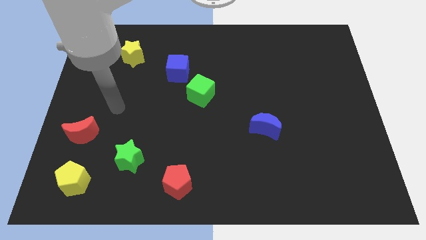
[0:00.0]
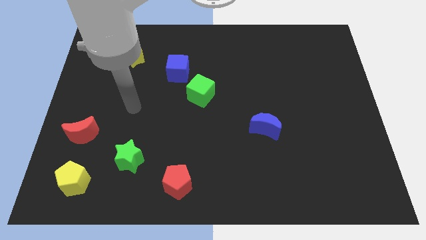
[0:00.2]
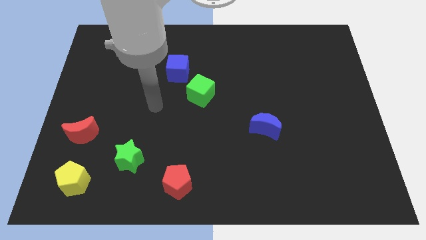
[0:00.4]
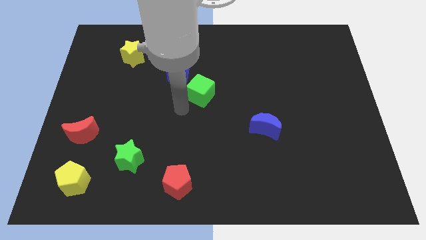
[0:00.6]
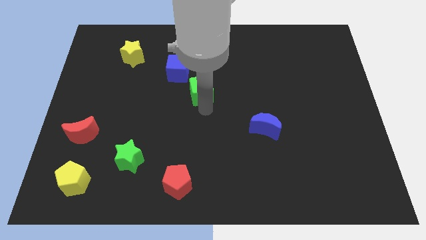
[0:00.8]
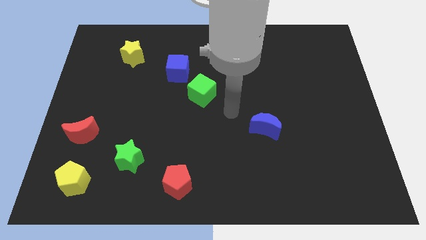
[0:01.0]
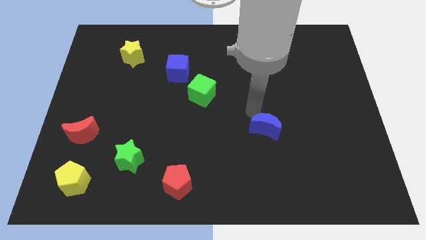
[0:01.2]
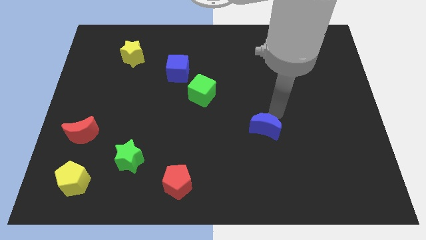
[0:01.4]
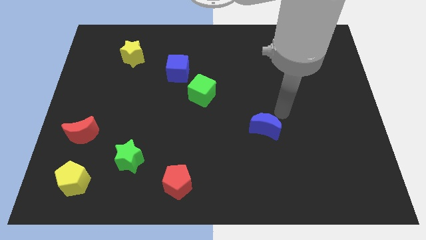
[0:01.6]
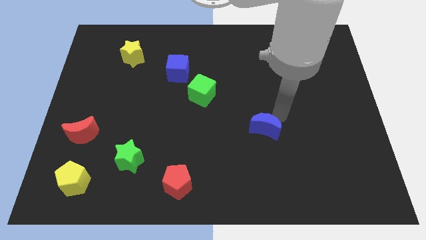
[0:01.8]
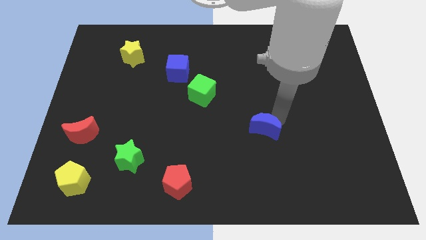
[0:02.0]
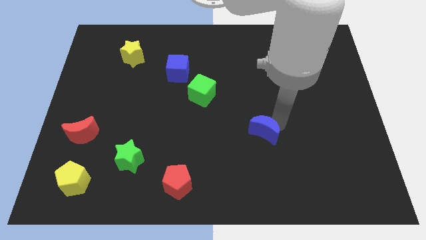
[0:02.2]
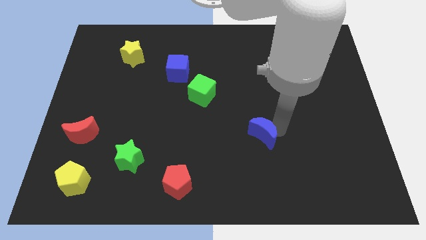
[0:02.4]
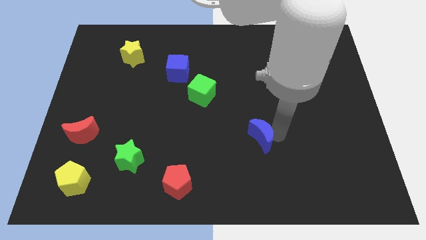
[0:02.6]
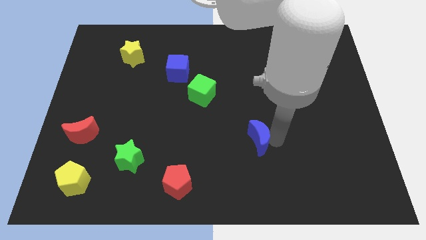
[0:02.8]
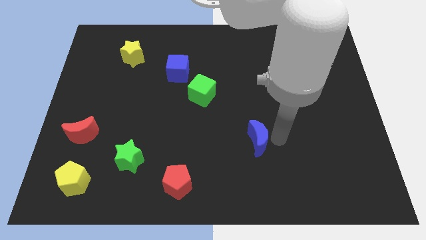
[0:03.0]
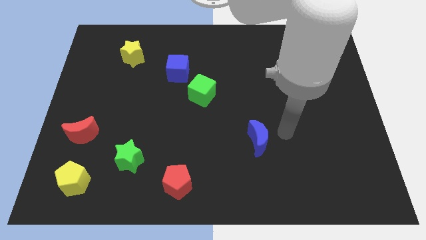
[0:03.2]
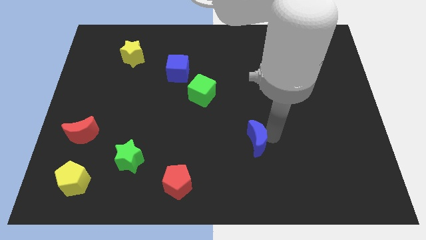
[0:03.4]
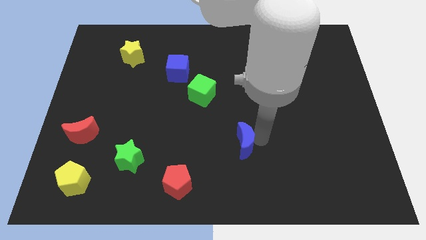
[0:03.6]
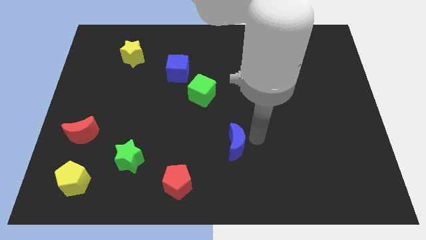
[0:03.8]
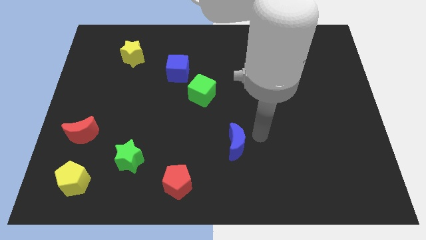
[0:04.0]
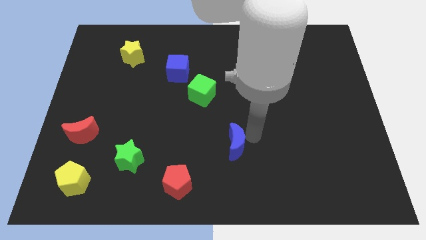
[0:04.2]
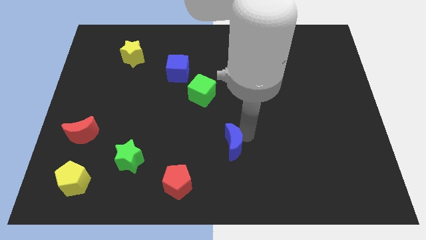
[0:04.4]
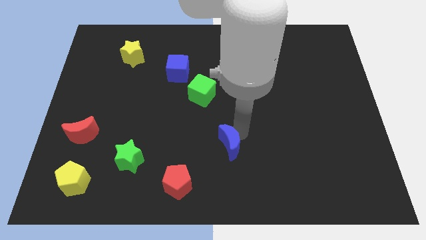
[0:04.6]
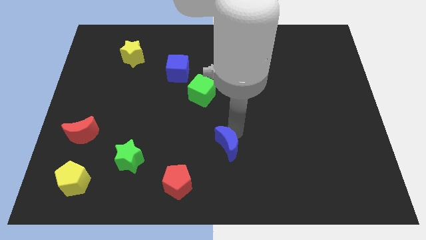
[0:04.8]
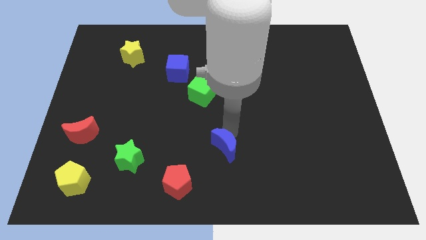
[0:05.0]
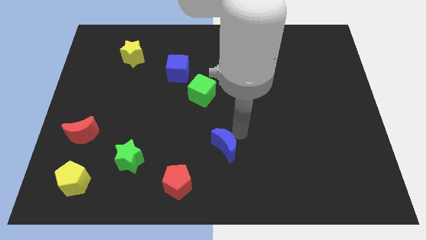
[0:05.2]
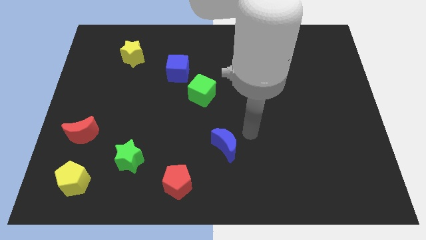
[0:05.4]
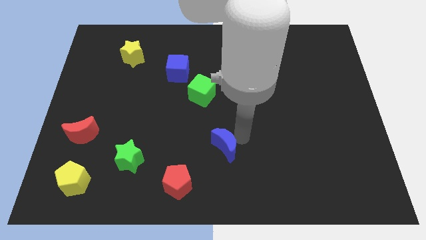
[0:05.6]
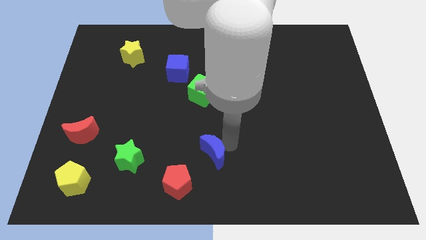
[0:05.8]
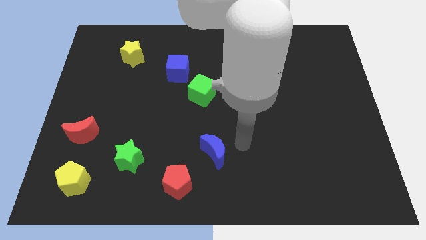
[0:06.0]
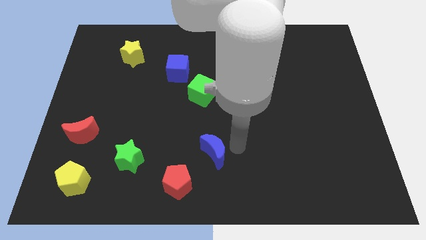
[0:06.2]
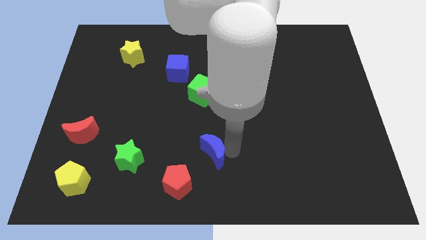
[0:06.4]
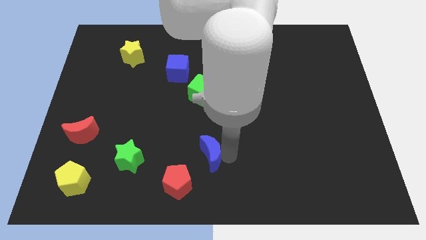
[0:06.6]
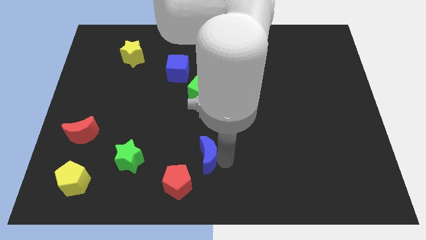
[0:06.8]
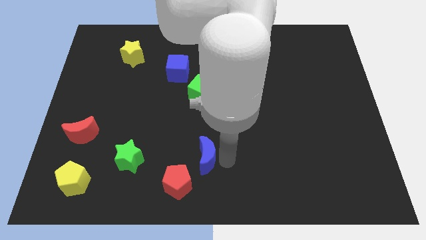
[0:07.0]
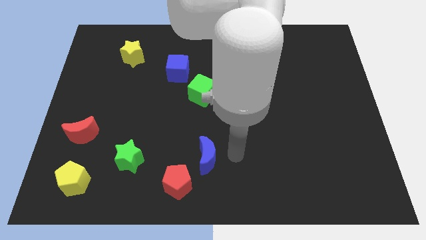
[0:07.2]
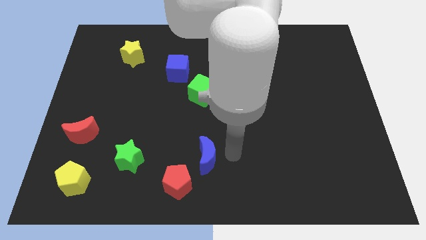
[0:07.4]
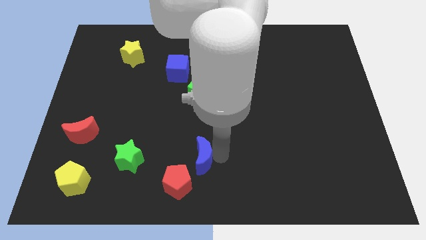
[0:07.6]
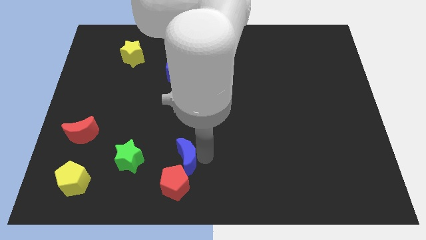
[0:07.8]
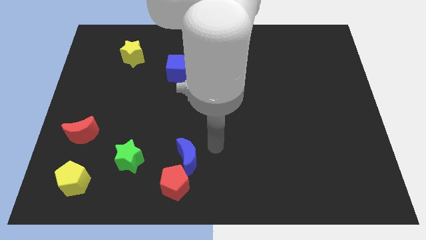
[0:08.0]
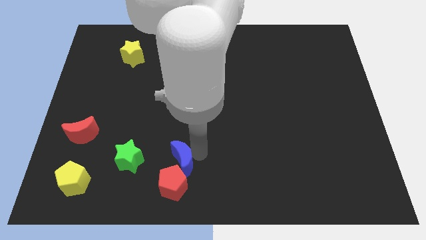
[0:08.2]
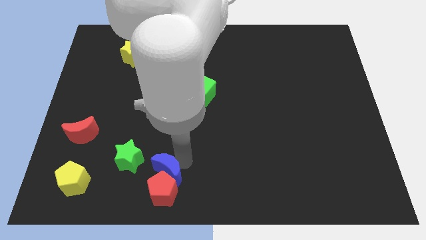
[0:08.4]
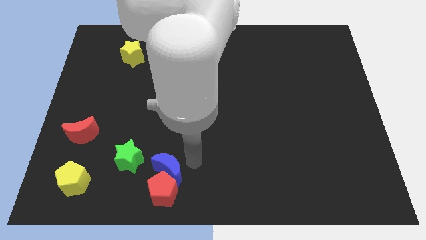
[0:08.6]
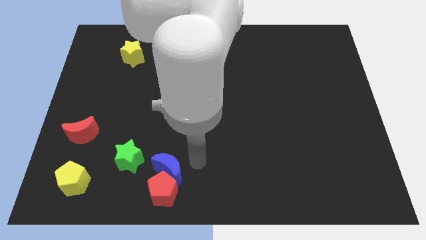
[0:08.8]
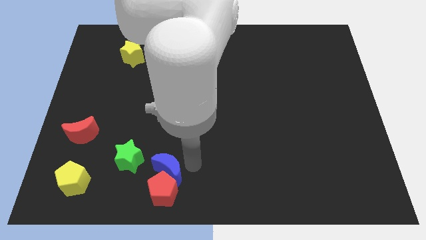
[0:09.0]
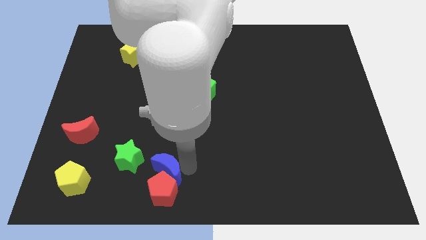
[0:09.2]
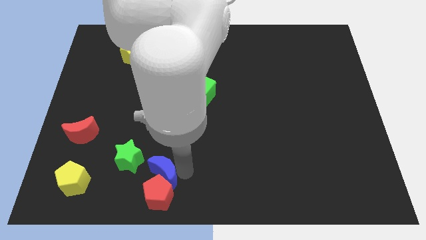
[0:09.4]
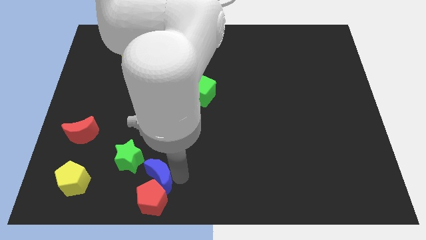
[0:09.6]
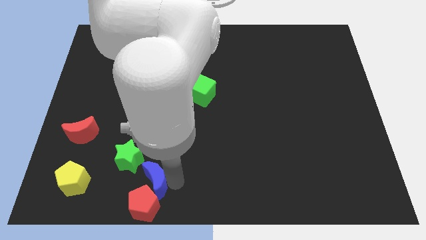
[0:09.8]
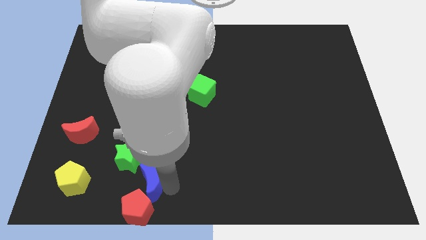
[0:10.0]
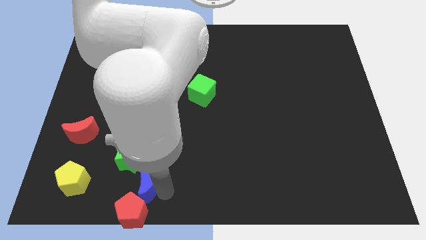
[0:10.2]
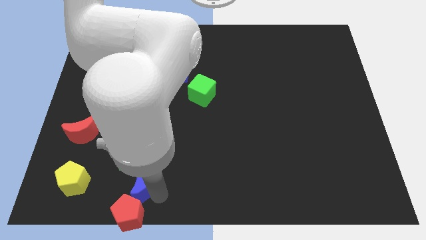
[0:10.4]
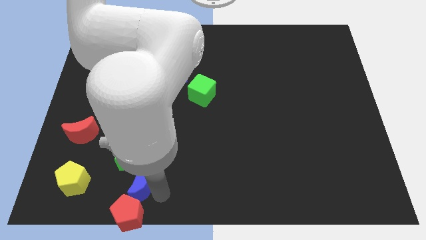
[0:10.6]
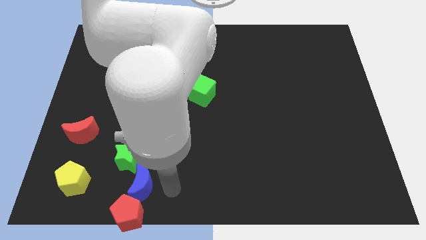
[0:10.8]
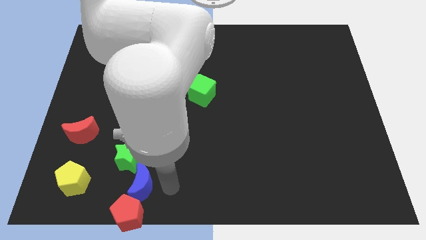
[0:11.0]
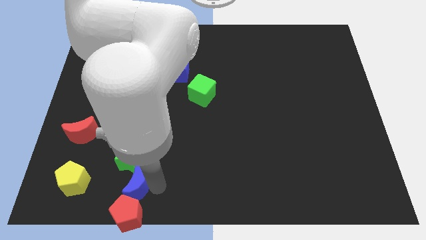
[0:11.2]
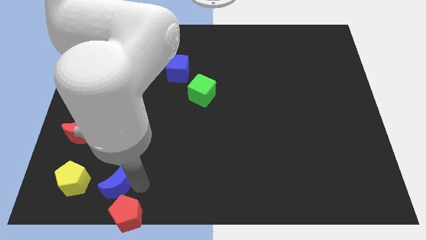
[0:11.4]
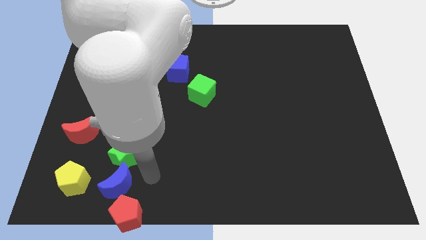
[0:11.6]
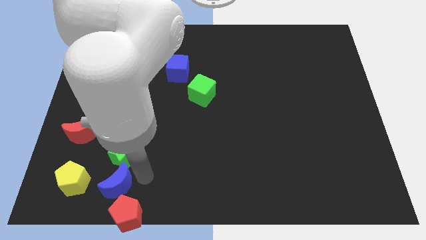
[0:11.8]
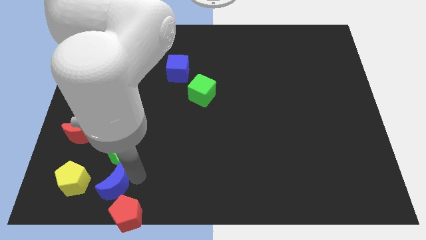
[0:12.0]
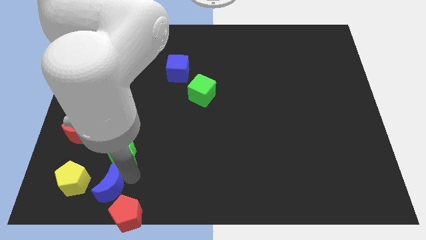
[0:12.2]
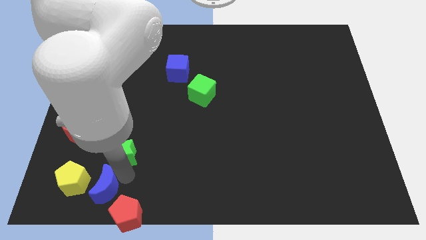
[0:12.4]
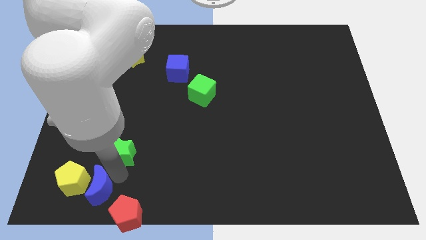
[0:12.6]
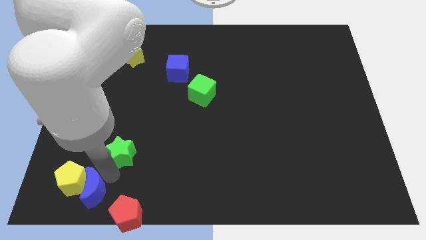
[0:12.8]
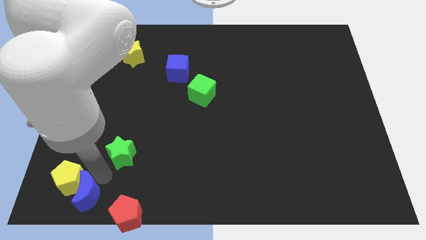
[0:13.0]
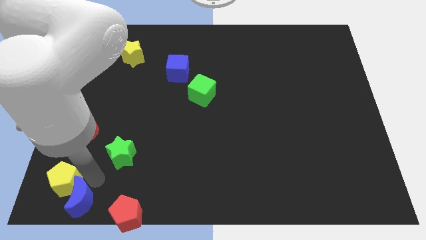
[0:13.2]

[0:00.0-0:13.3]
slide the blue moon to the bottom left of the board

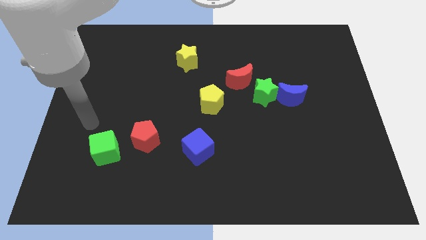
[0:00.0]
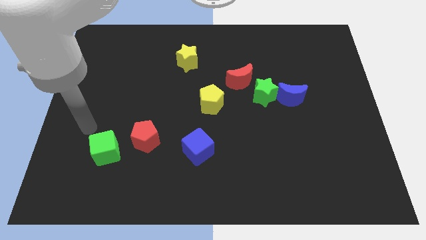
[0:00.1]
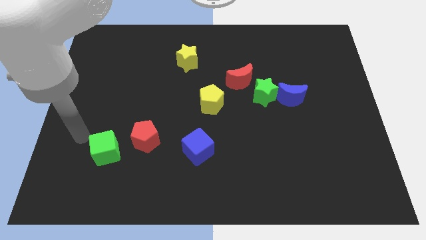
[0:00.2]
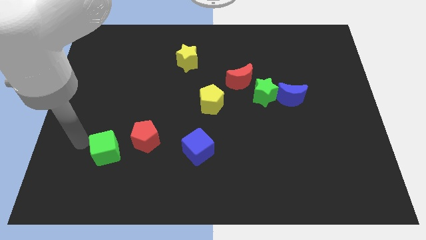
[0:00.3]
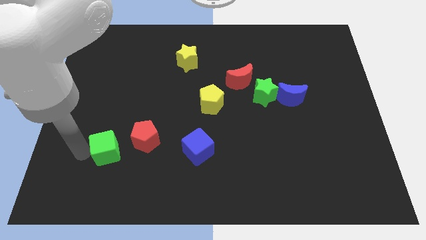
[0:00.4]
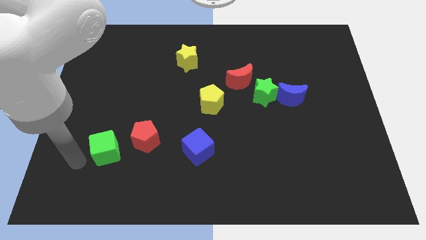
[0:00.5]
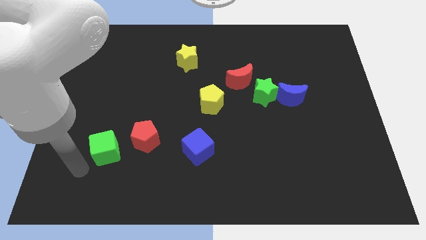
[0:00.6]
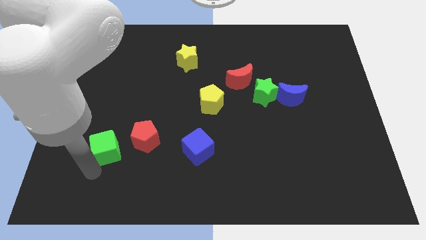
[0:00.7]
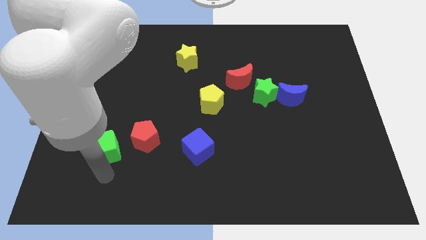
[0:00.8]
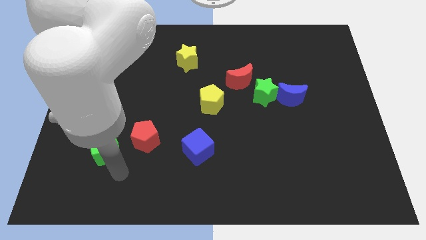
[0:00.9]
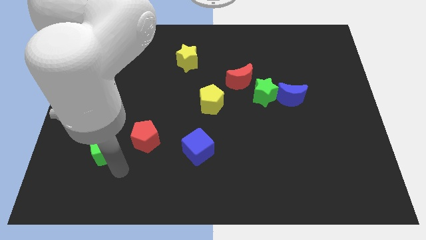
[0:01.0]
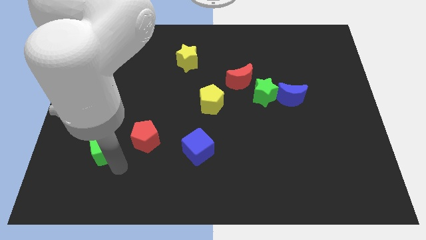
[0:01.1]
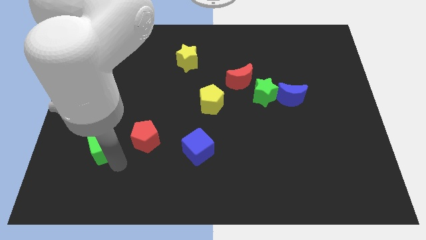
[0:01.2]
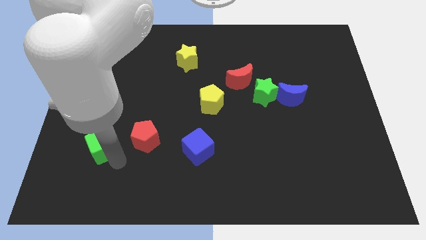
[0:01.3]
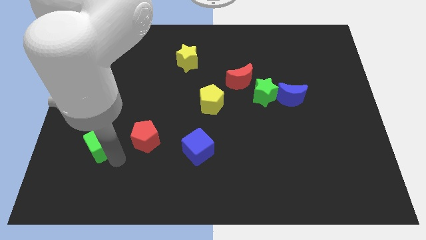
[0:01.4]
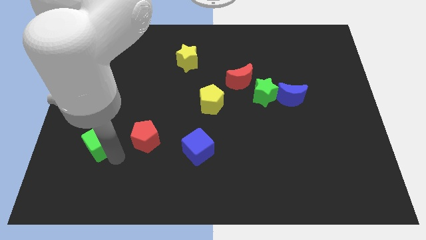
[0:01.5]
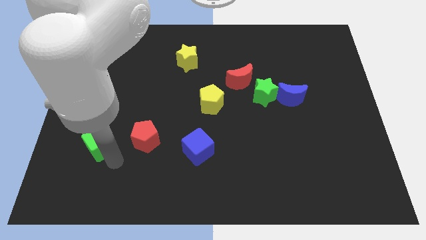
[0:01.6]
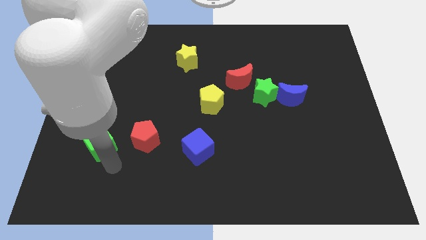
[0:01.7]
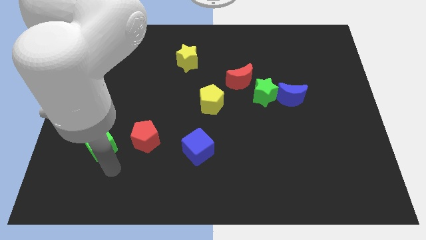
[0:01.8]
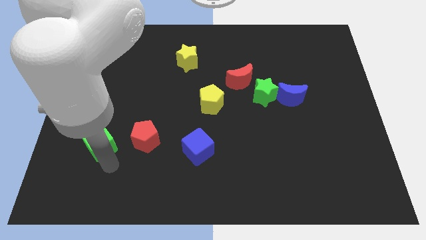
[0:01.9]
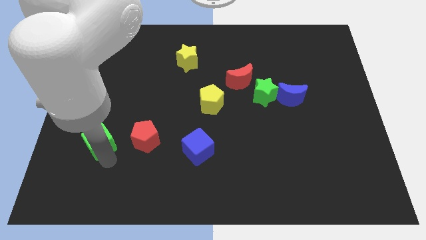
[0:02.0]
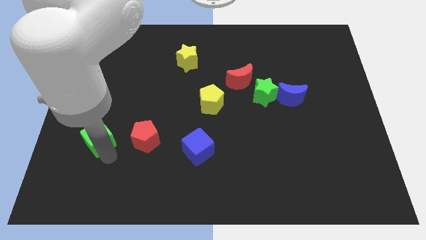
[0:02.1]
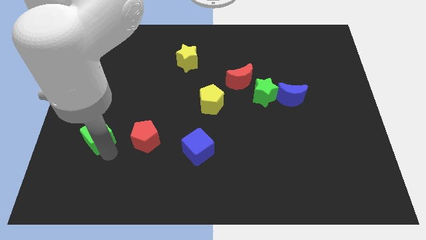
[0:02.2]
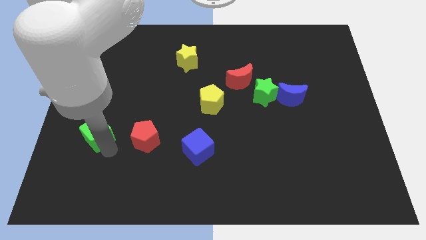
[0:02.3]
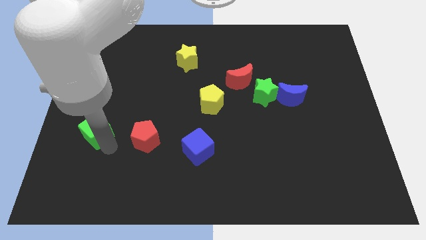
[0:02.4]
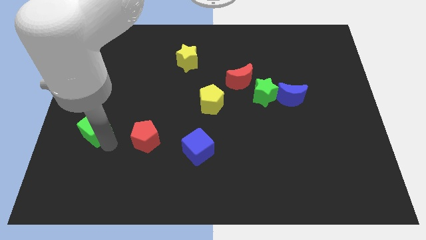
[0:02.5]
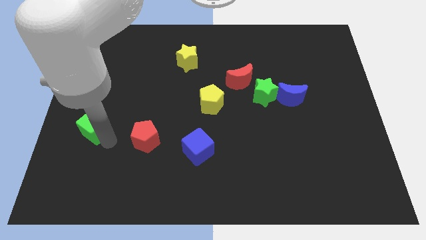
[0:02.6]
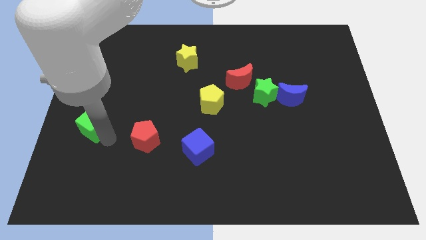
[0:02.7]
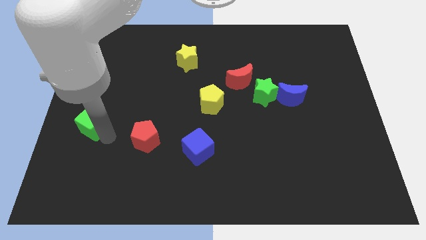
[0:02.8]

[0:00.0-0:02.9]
slide the green cube to the left side
